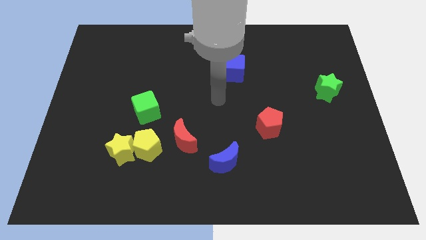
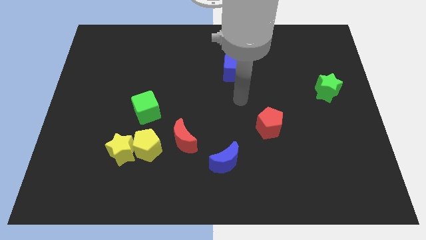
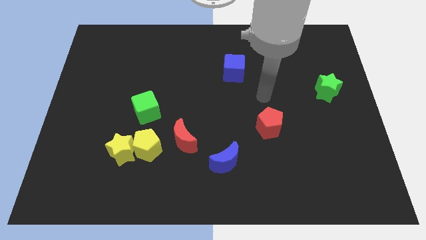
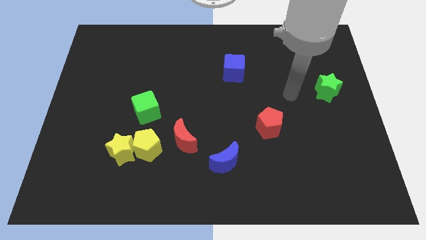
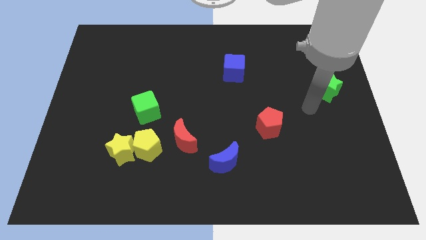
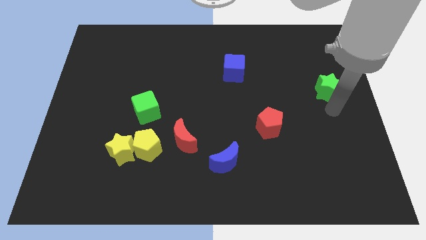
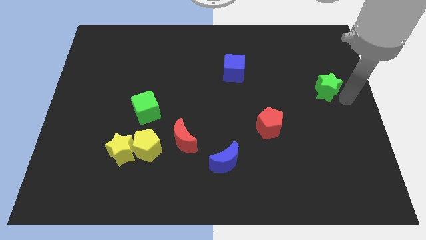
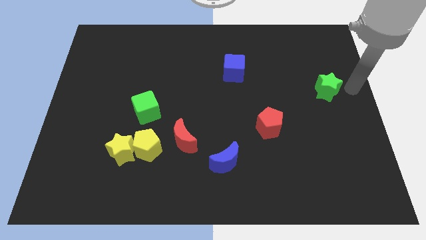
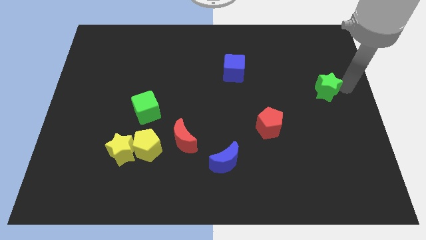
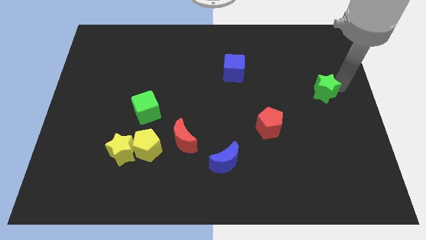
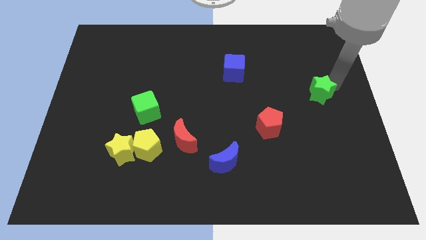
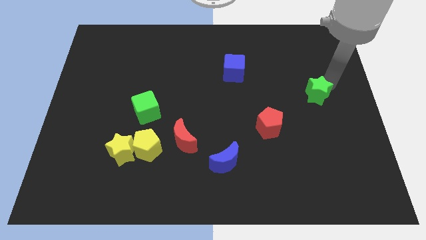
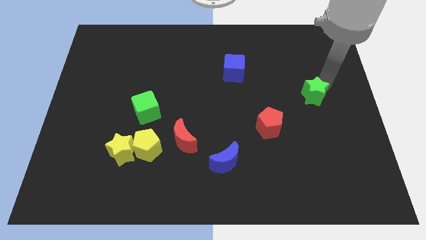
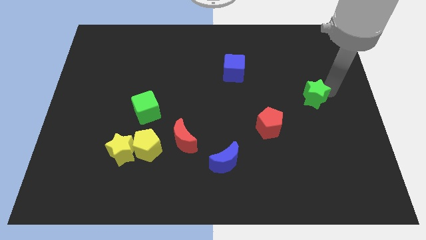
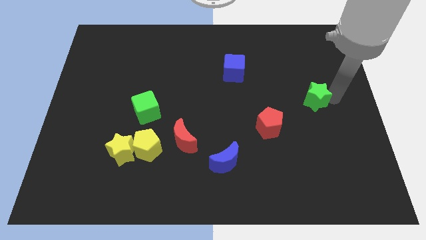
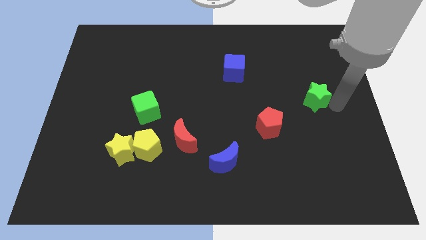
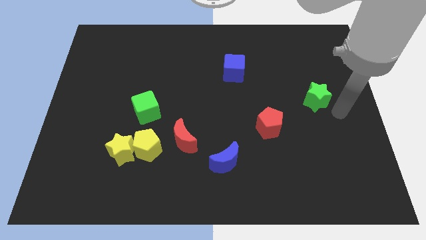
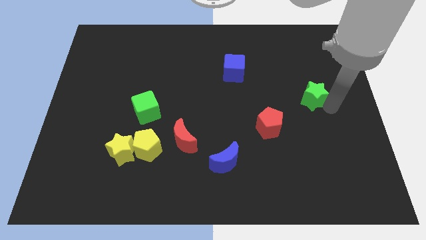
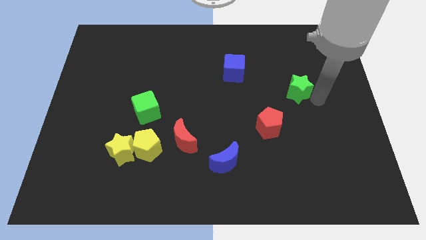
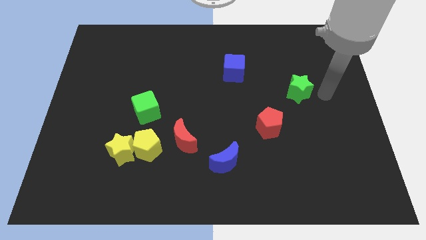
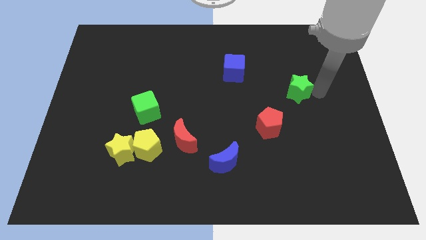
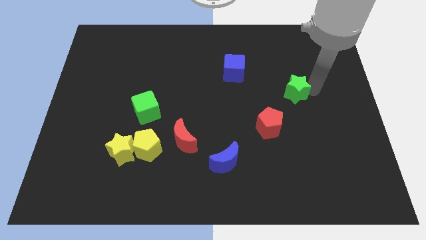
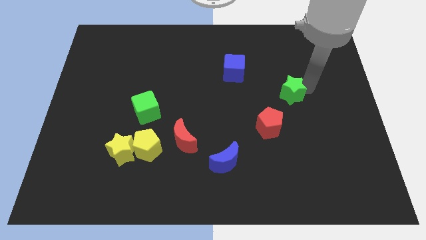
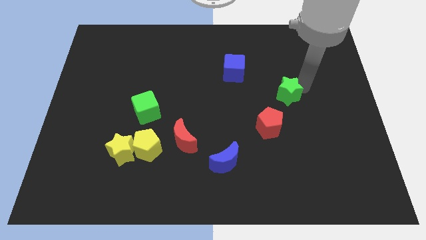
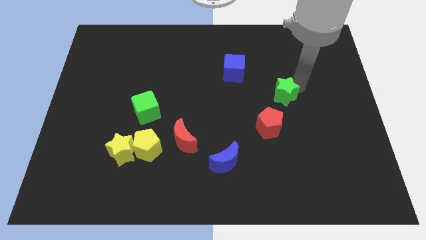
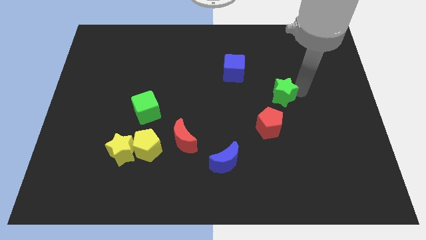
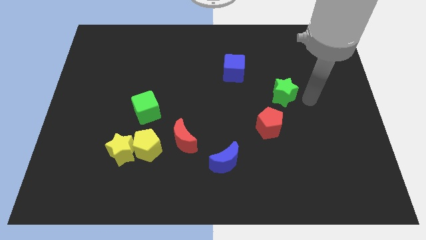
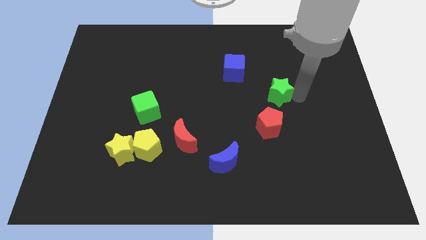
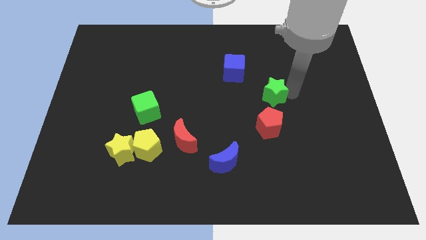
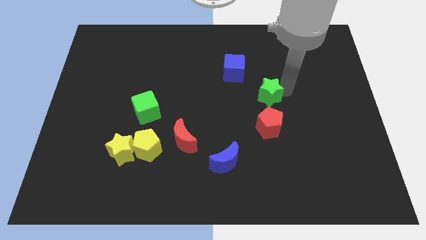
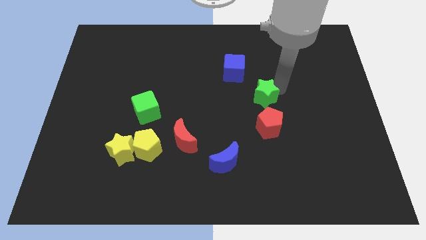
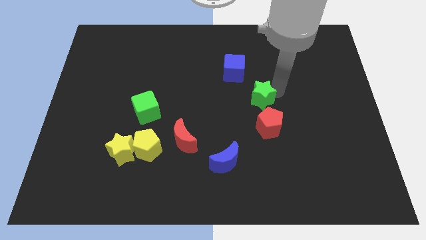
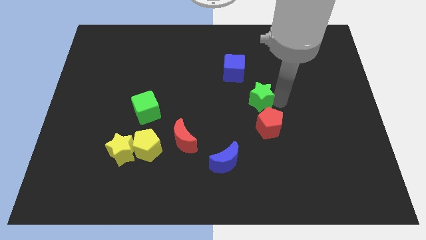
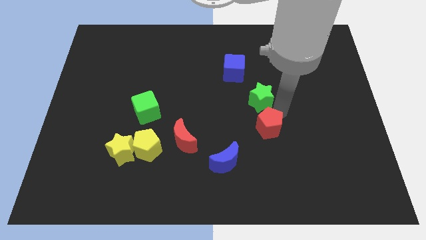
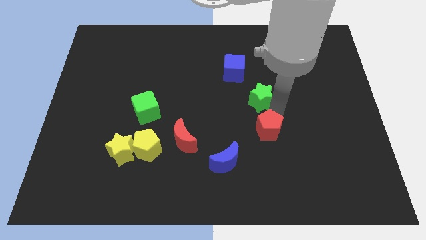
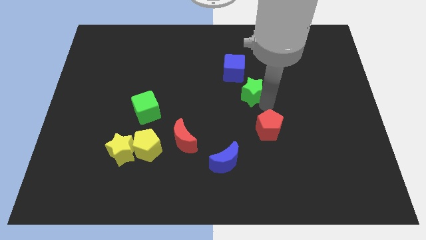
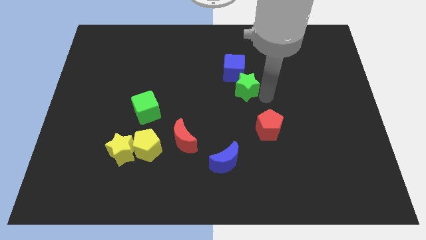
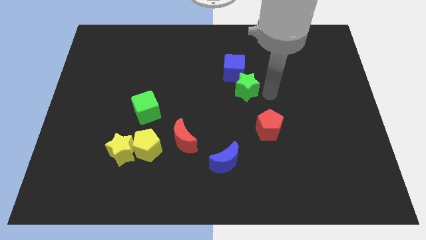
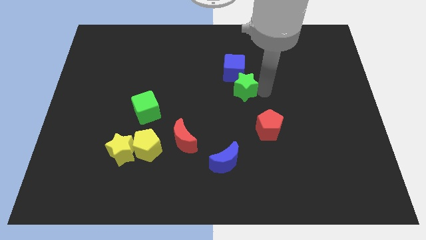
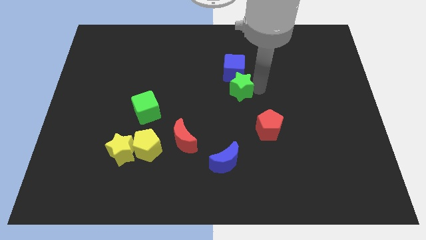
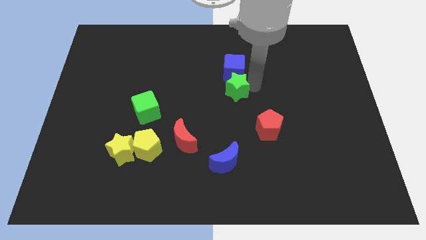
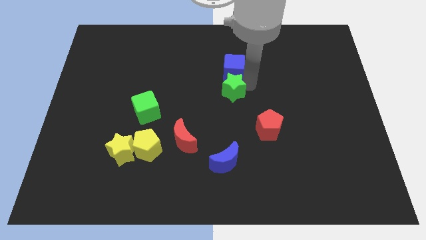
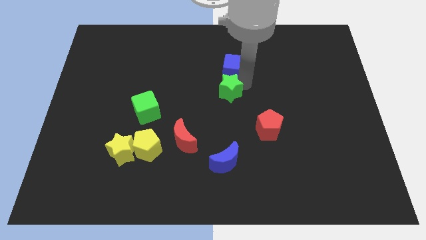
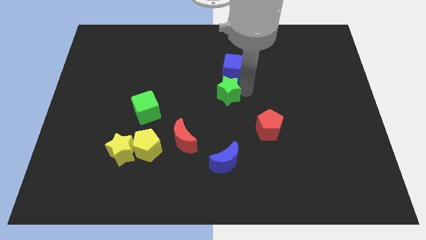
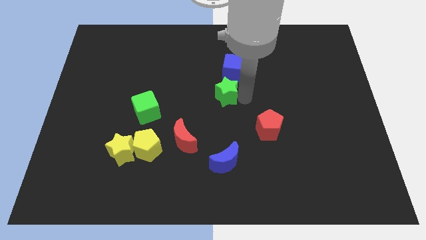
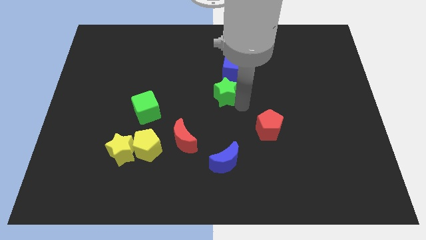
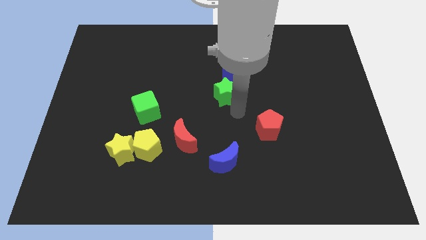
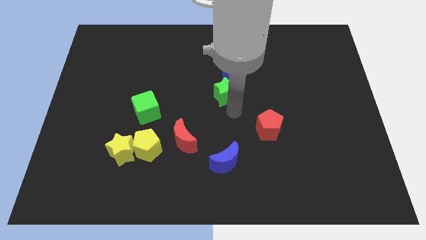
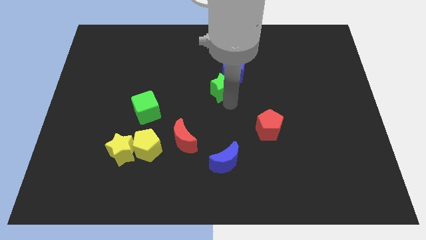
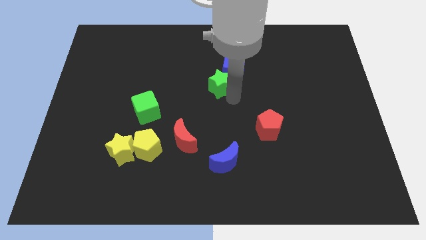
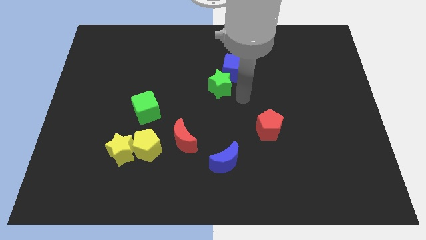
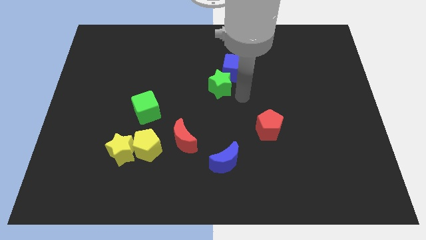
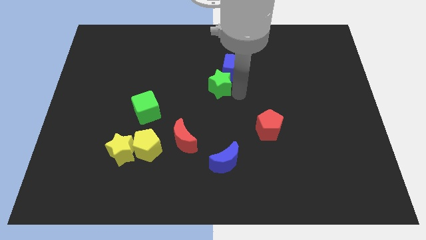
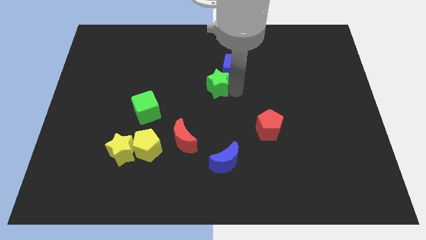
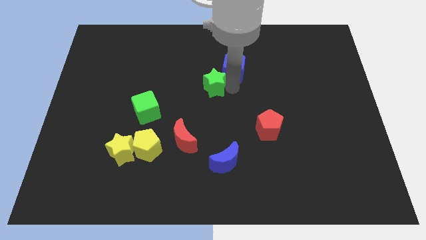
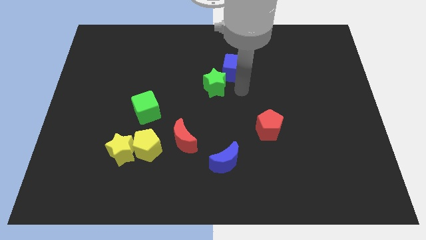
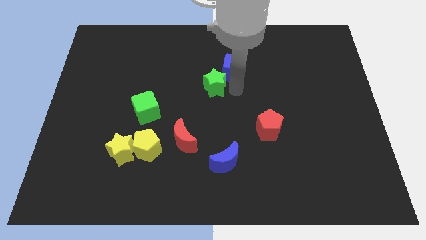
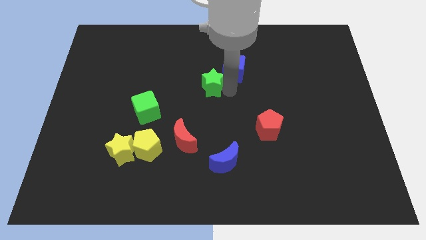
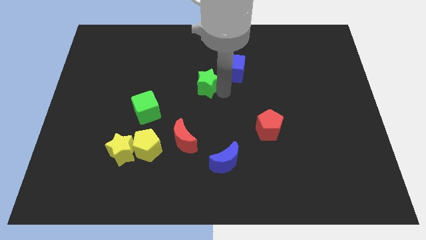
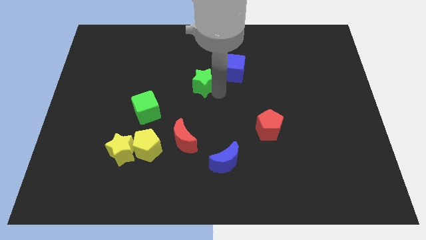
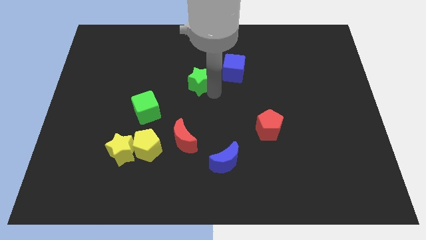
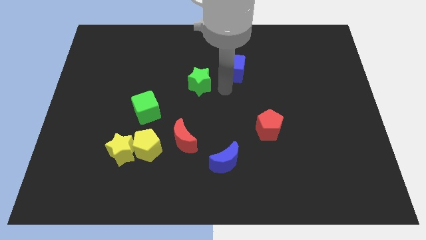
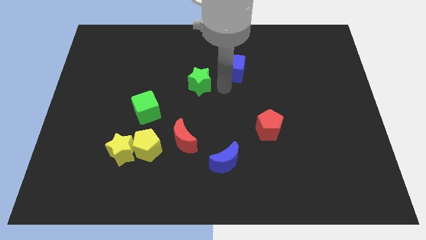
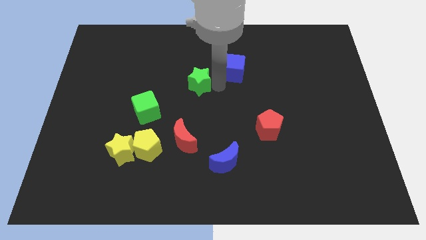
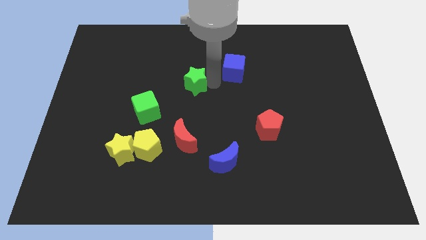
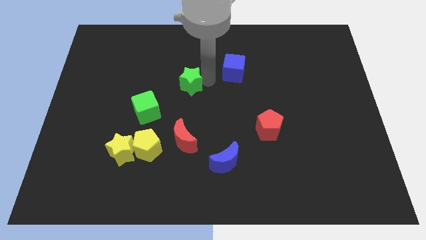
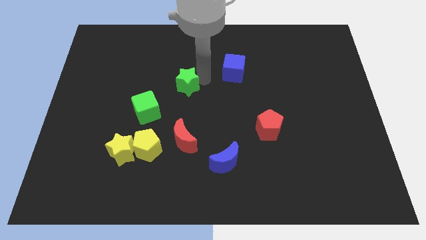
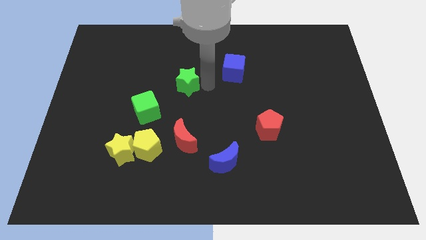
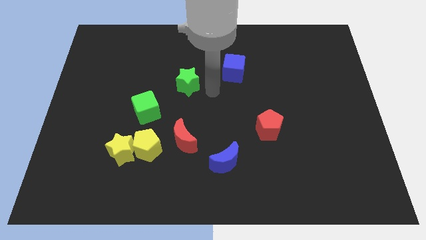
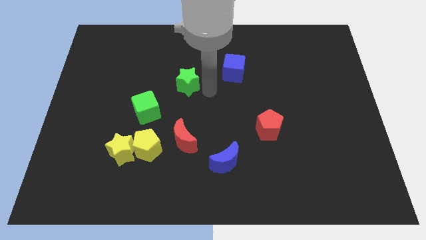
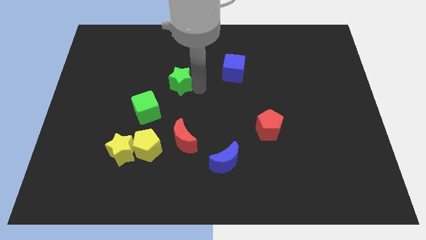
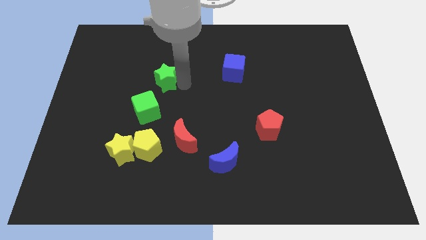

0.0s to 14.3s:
put the green star to the top side of the green cube

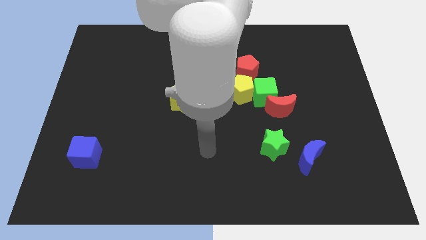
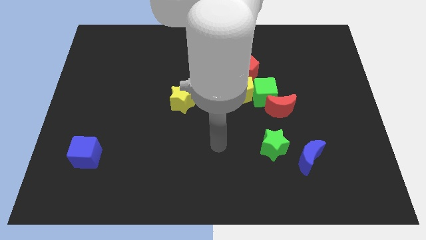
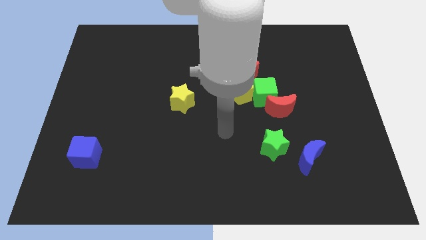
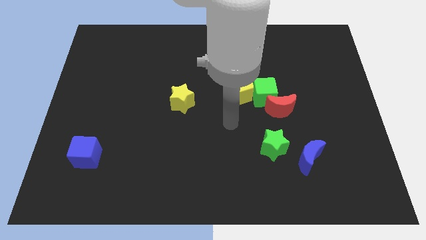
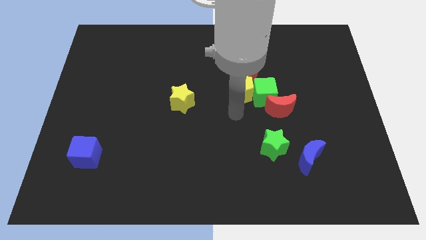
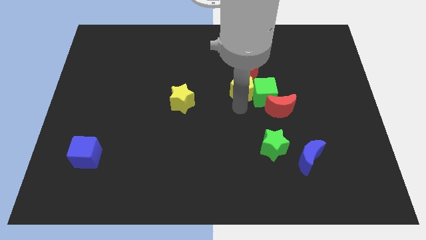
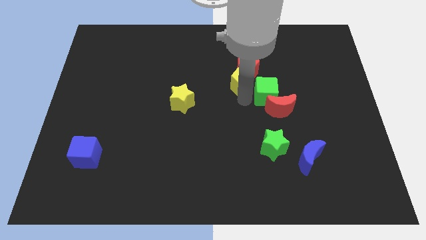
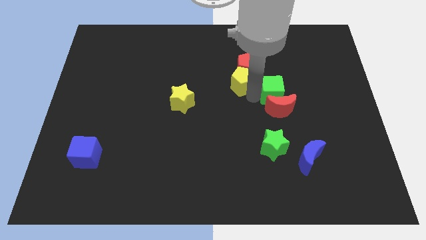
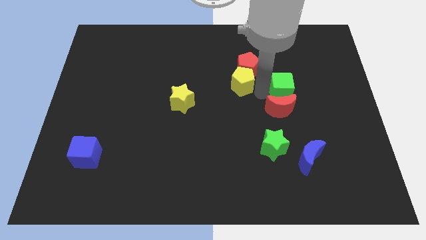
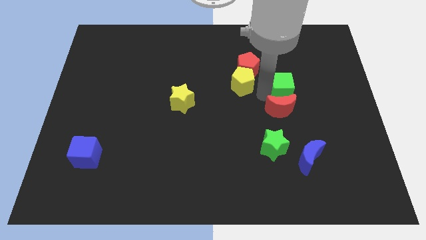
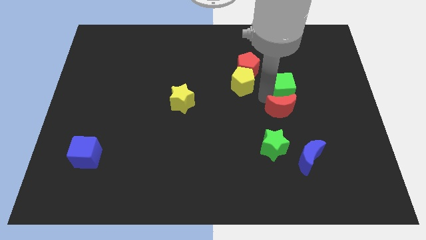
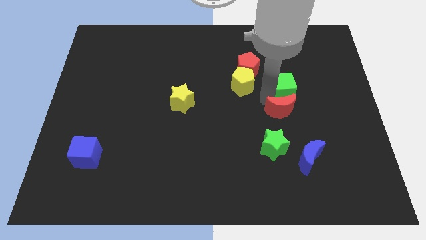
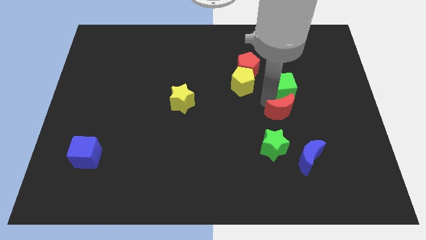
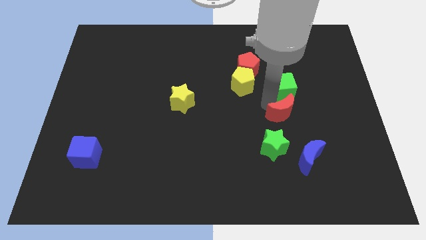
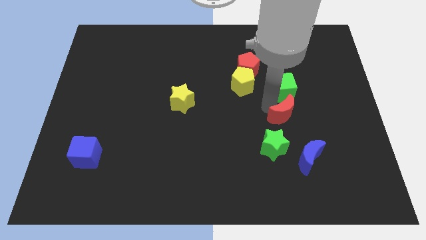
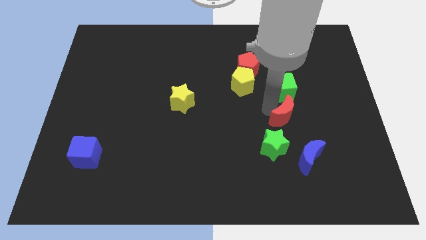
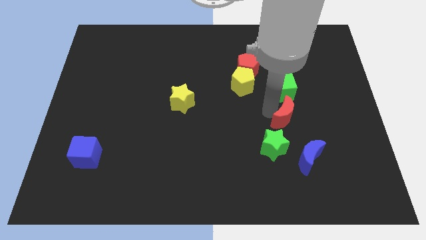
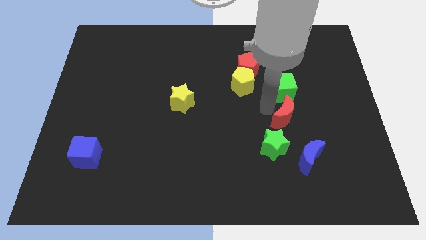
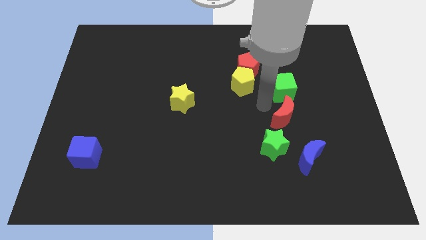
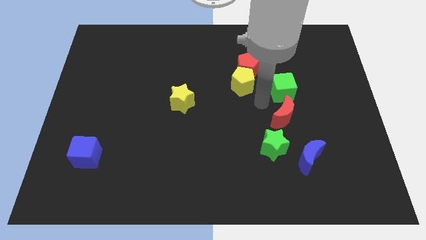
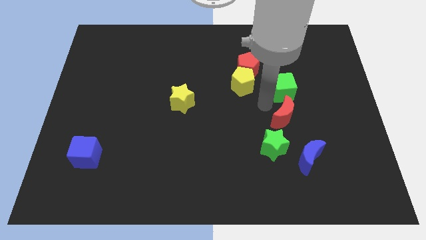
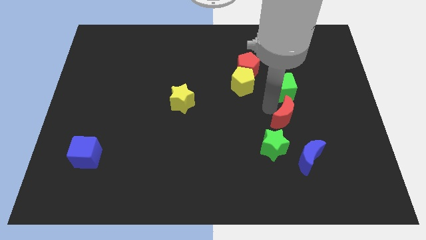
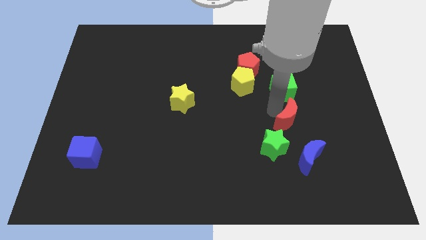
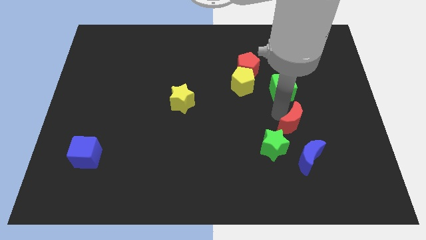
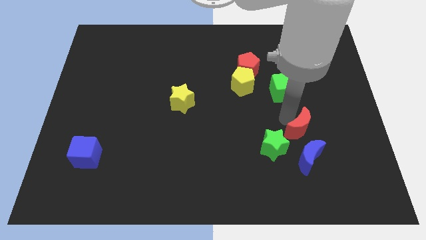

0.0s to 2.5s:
move the red moon to the right side of the green star
